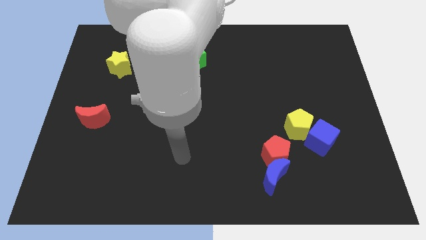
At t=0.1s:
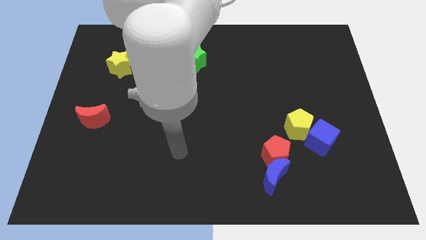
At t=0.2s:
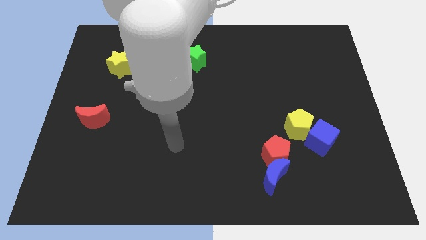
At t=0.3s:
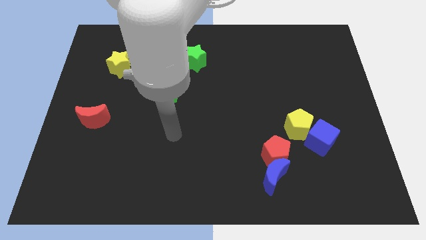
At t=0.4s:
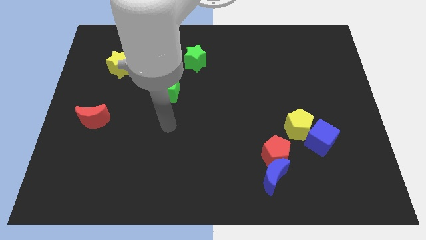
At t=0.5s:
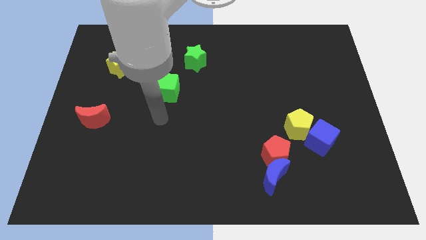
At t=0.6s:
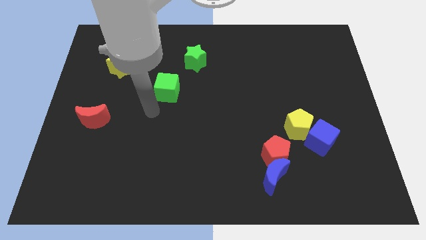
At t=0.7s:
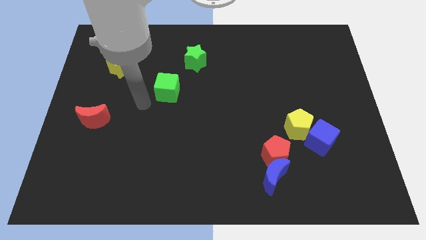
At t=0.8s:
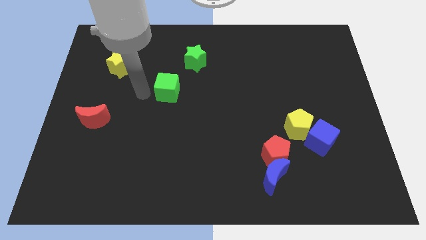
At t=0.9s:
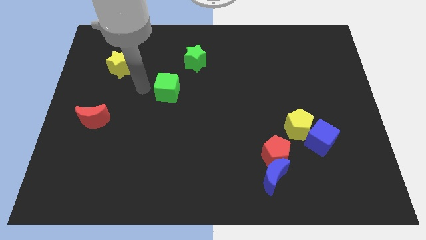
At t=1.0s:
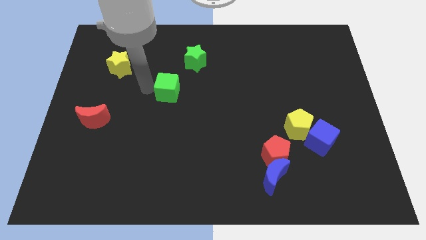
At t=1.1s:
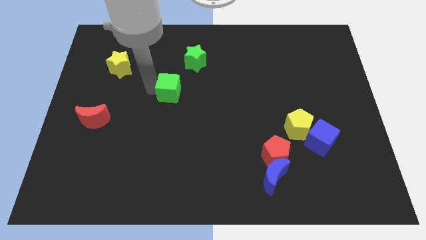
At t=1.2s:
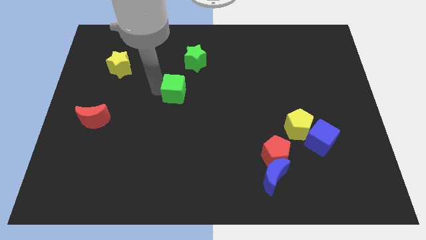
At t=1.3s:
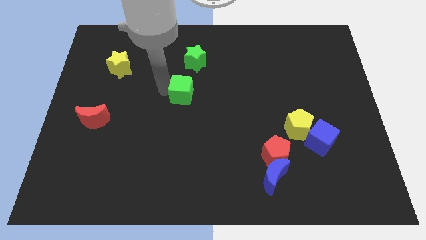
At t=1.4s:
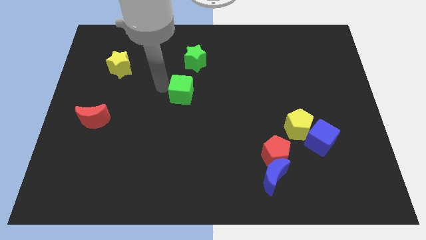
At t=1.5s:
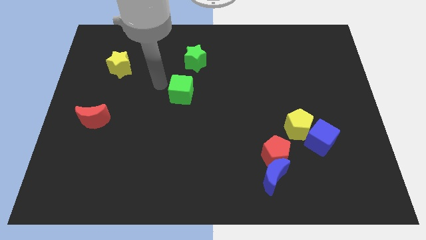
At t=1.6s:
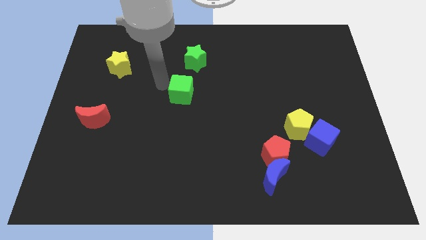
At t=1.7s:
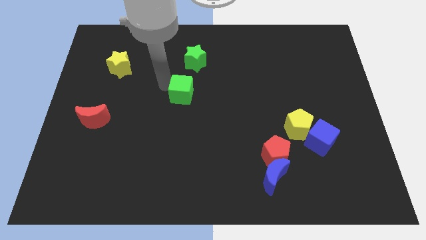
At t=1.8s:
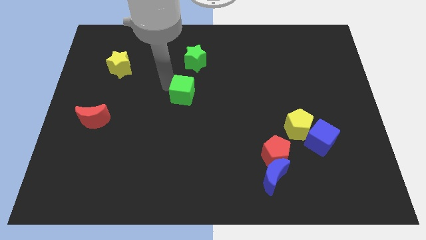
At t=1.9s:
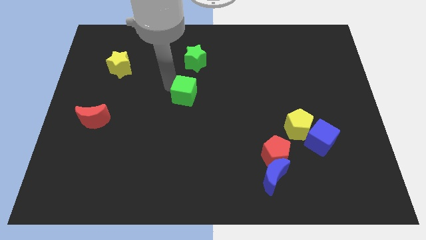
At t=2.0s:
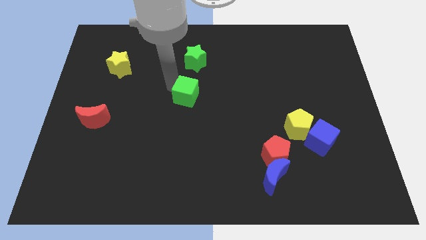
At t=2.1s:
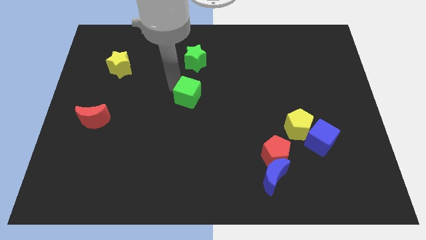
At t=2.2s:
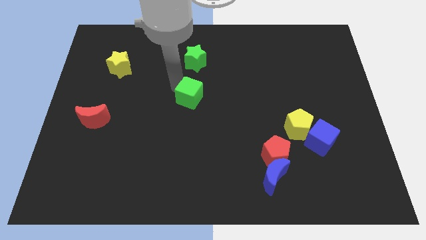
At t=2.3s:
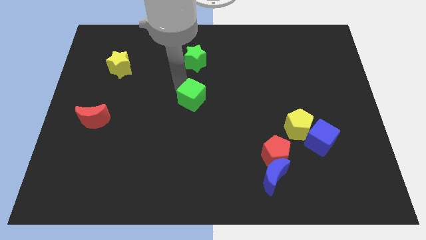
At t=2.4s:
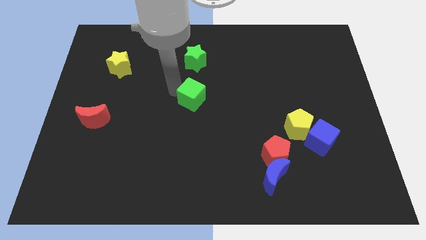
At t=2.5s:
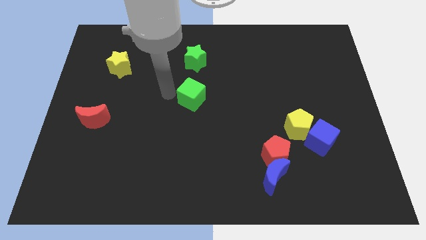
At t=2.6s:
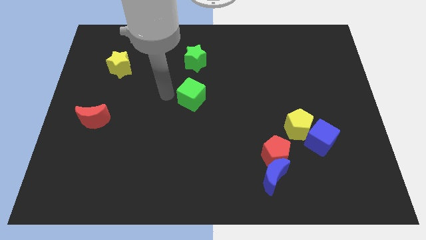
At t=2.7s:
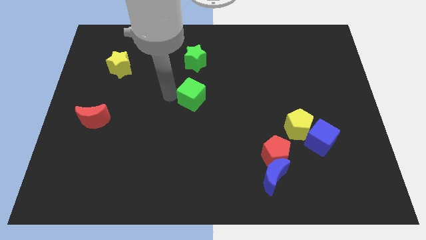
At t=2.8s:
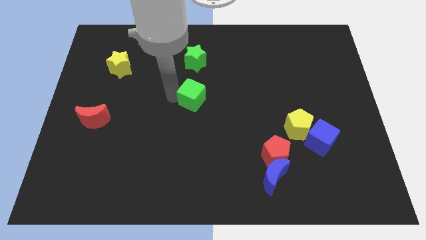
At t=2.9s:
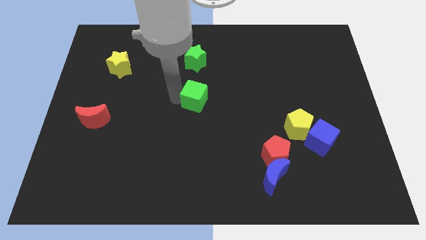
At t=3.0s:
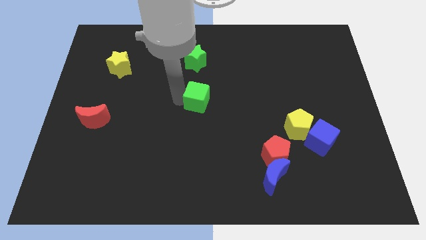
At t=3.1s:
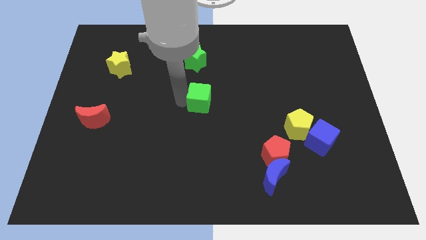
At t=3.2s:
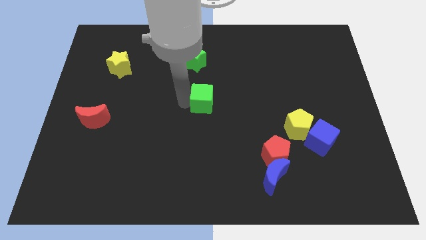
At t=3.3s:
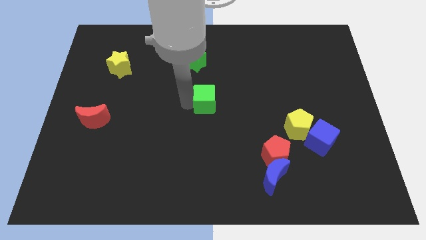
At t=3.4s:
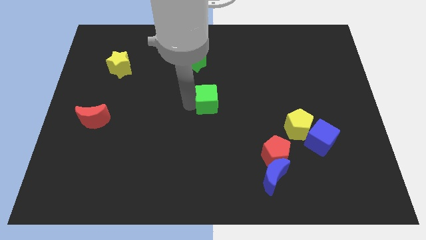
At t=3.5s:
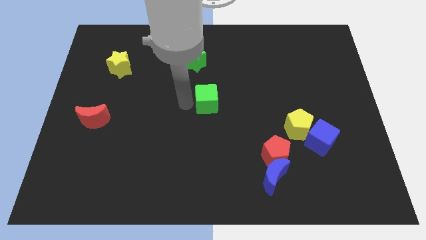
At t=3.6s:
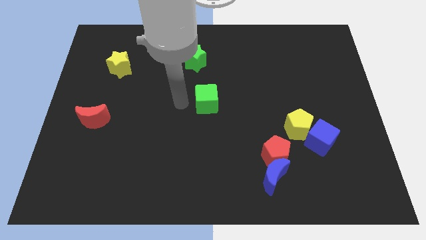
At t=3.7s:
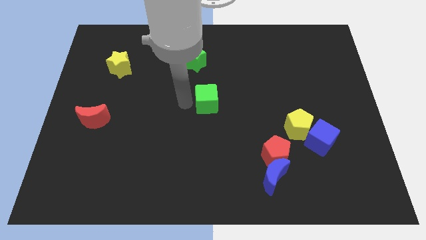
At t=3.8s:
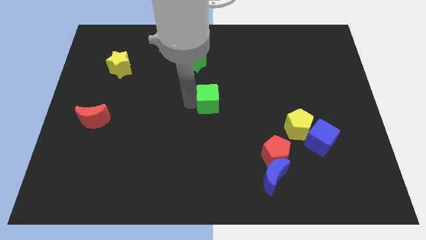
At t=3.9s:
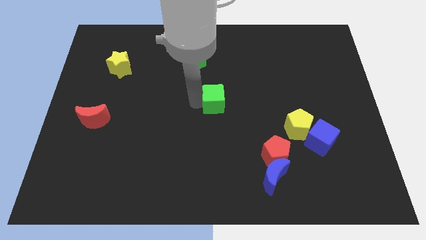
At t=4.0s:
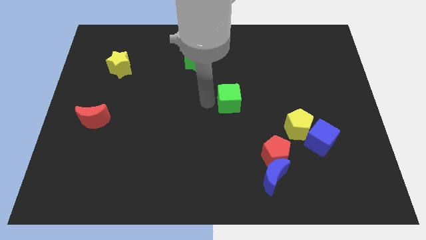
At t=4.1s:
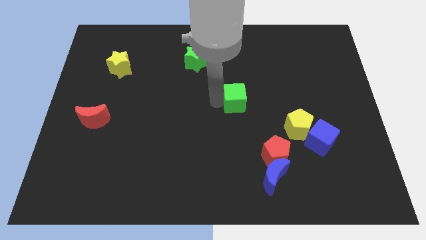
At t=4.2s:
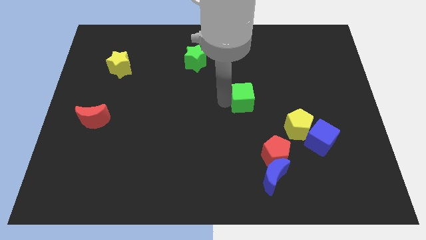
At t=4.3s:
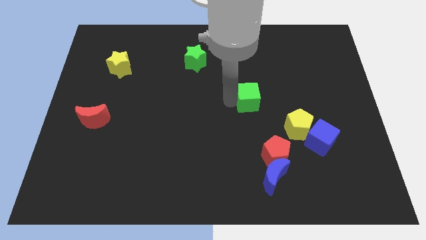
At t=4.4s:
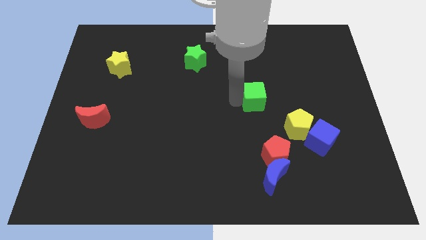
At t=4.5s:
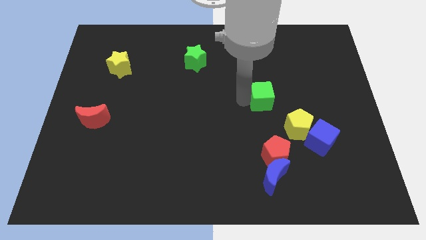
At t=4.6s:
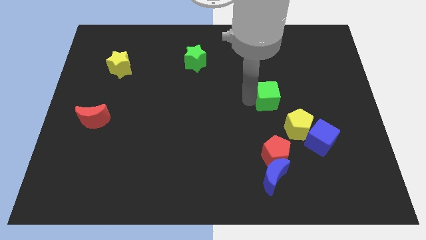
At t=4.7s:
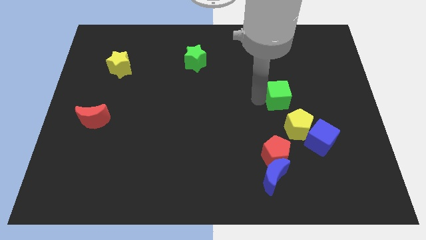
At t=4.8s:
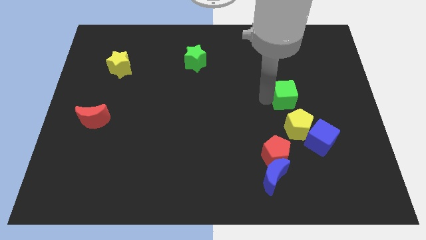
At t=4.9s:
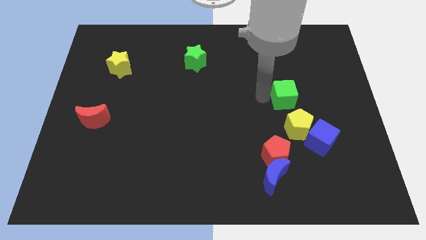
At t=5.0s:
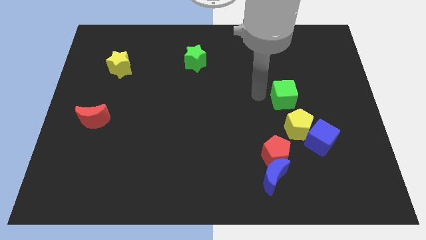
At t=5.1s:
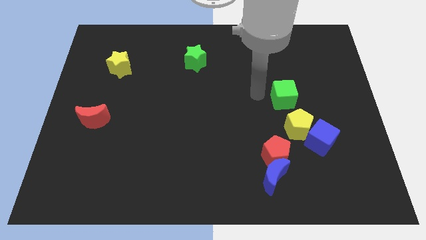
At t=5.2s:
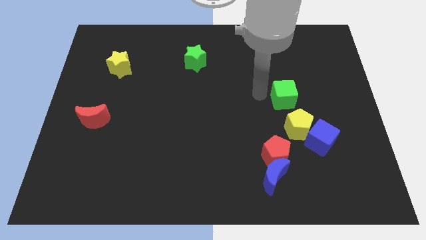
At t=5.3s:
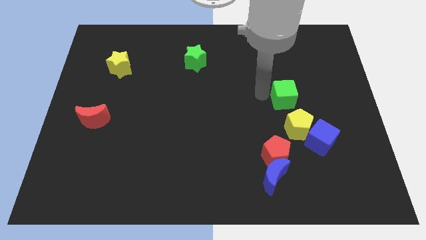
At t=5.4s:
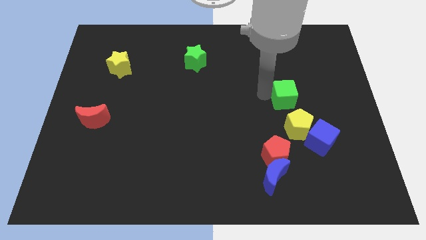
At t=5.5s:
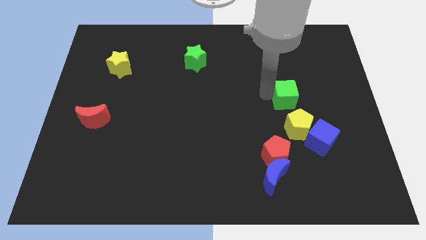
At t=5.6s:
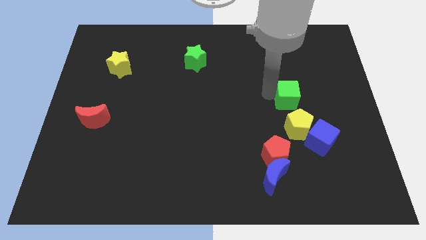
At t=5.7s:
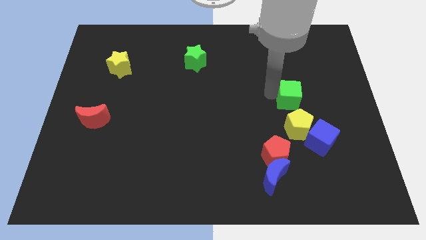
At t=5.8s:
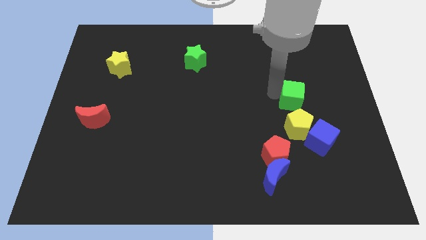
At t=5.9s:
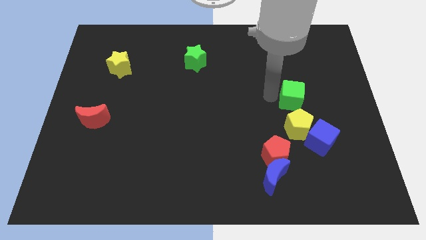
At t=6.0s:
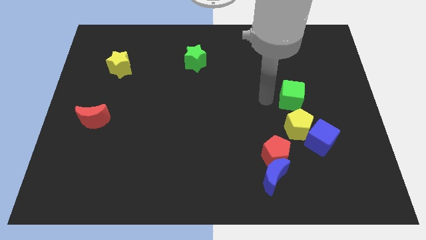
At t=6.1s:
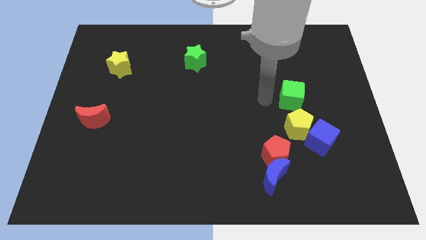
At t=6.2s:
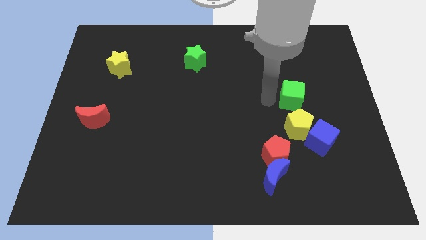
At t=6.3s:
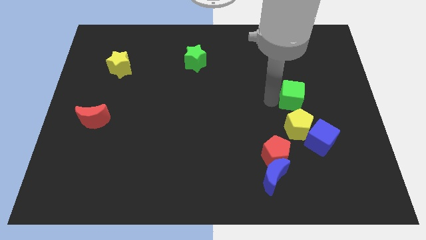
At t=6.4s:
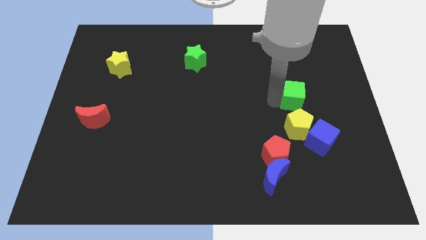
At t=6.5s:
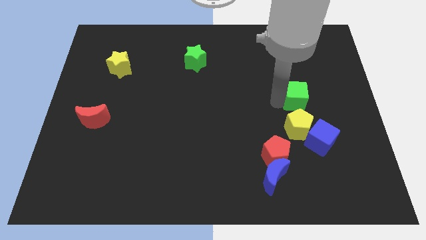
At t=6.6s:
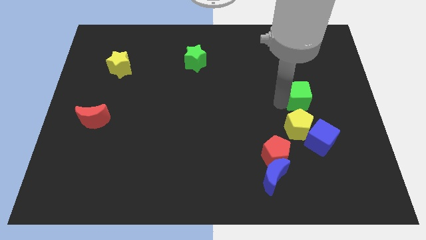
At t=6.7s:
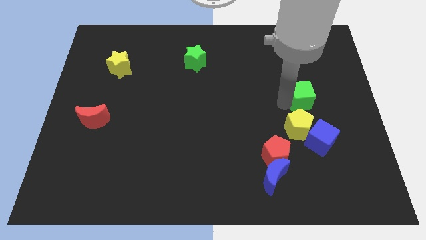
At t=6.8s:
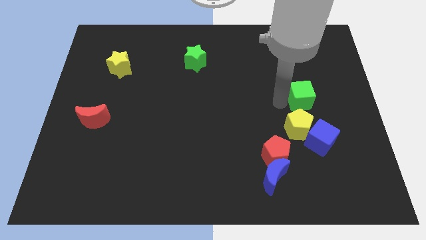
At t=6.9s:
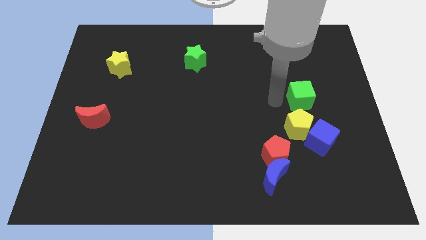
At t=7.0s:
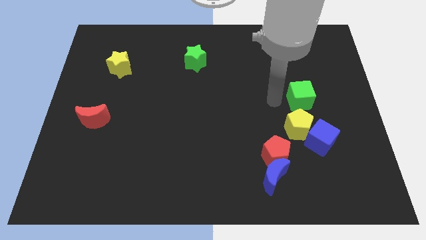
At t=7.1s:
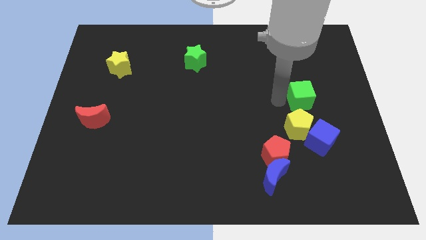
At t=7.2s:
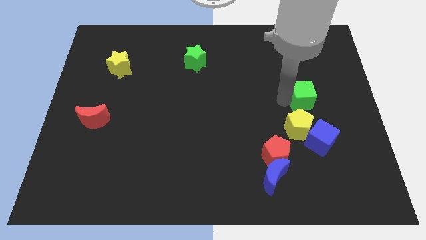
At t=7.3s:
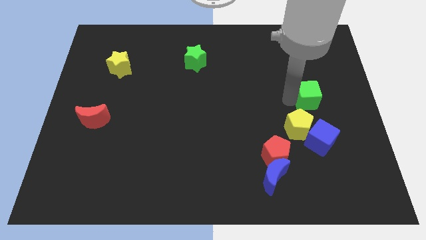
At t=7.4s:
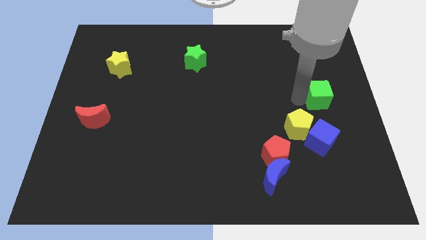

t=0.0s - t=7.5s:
move the green cube to the right side of the board

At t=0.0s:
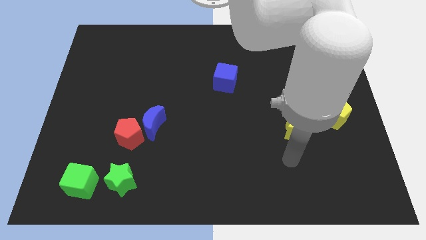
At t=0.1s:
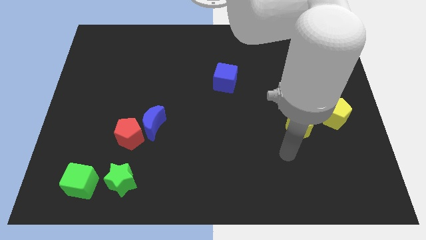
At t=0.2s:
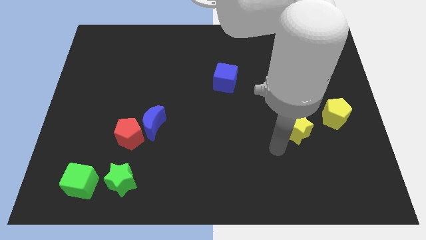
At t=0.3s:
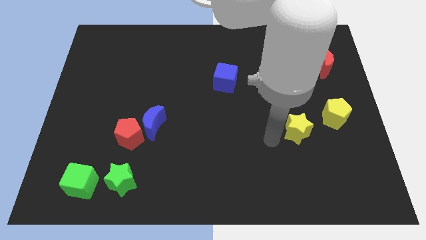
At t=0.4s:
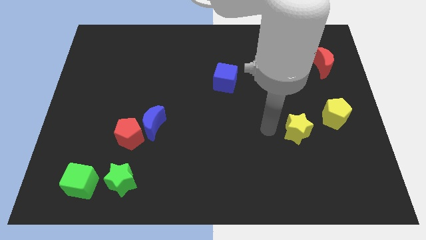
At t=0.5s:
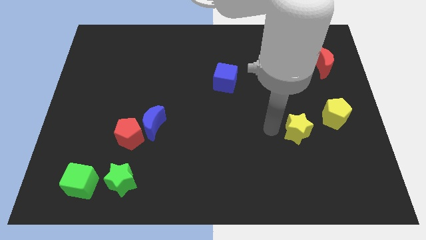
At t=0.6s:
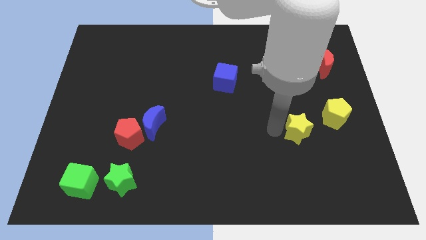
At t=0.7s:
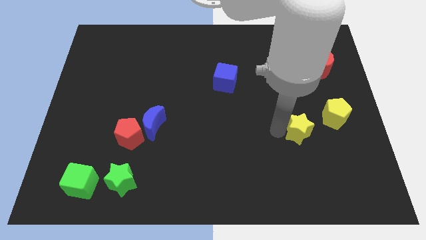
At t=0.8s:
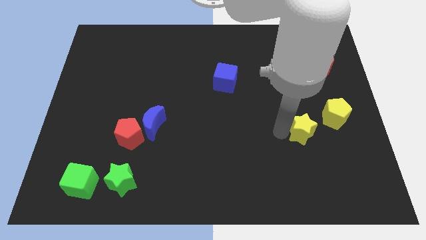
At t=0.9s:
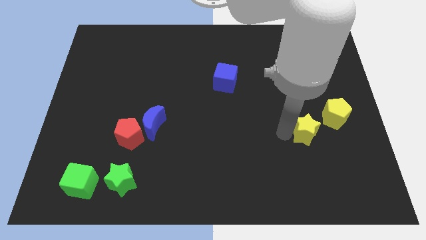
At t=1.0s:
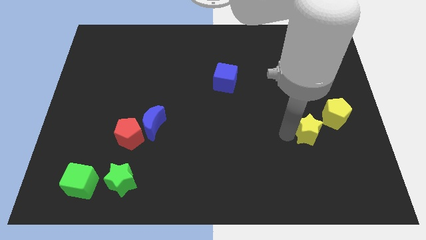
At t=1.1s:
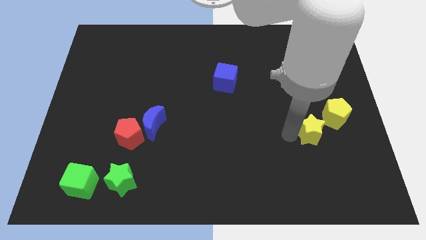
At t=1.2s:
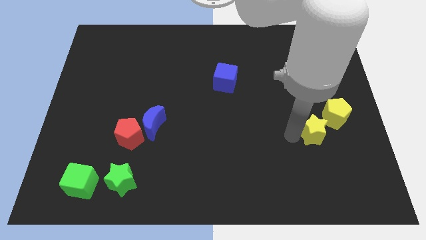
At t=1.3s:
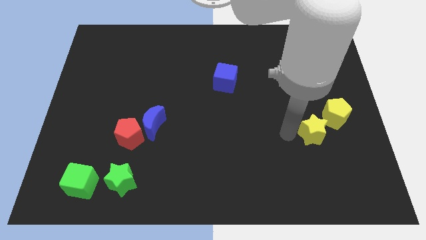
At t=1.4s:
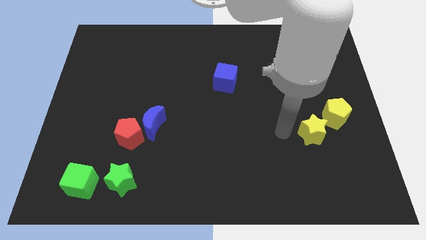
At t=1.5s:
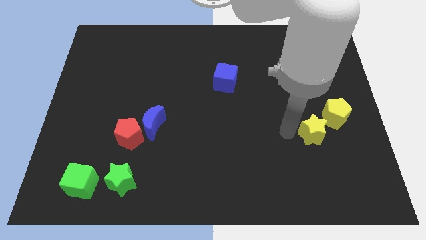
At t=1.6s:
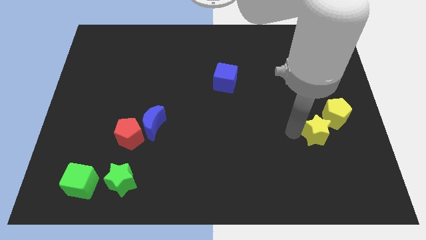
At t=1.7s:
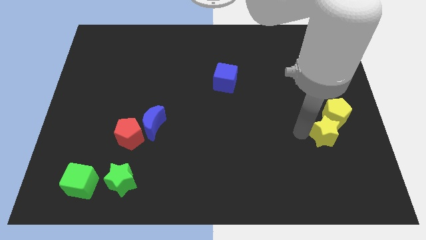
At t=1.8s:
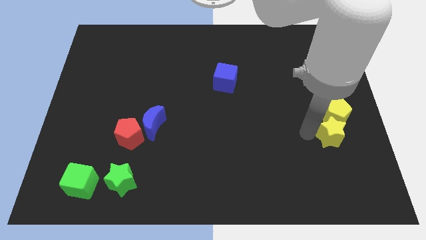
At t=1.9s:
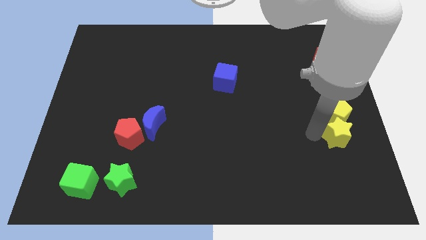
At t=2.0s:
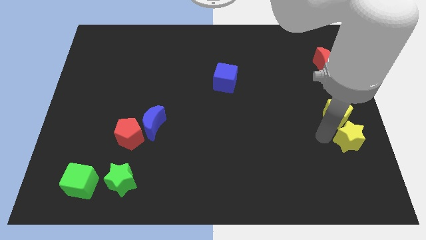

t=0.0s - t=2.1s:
move the yellow star to the center right
